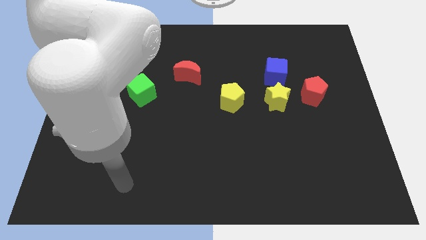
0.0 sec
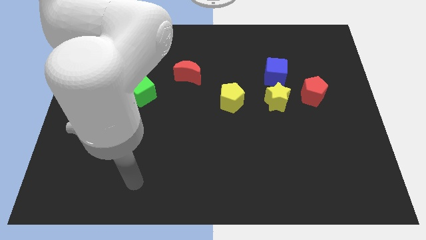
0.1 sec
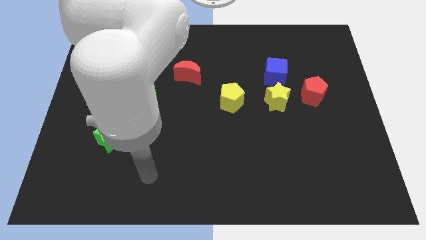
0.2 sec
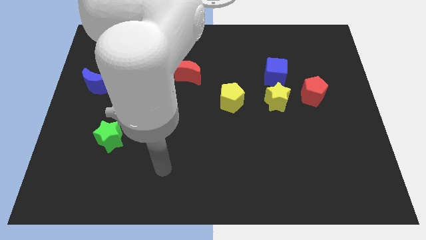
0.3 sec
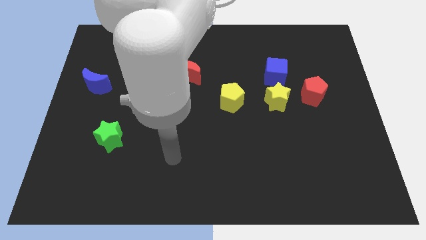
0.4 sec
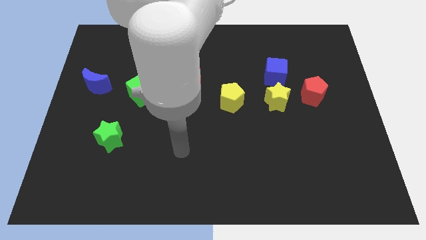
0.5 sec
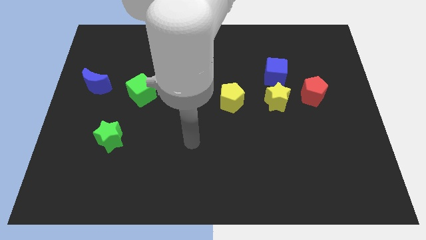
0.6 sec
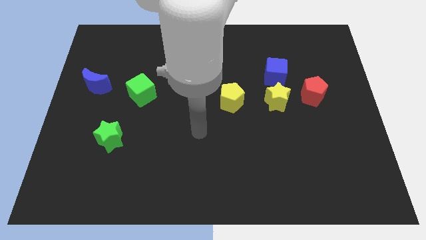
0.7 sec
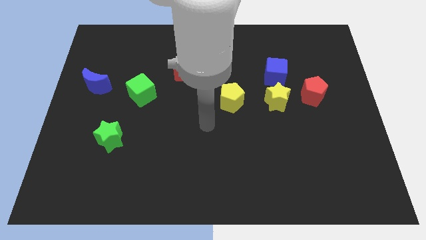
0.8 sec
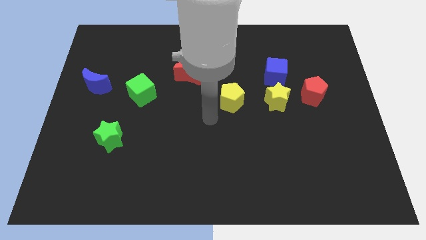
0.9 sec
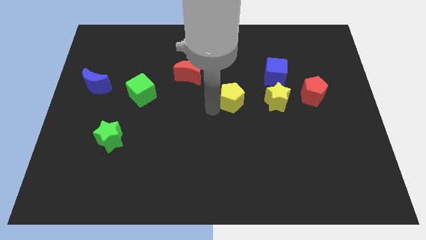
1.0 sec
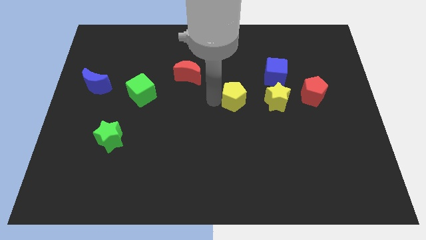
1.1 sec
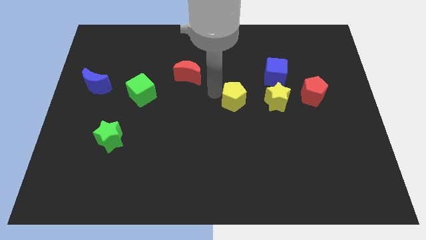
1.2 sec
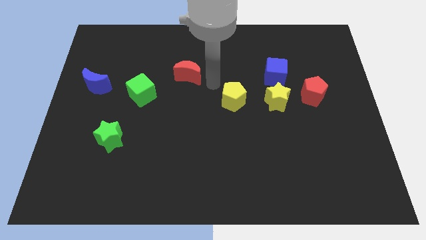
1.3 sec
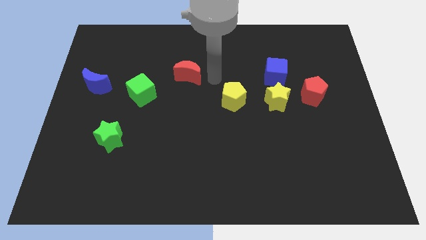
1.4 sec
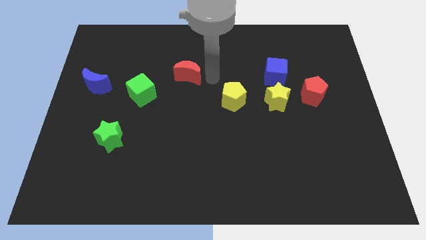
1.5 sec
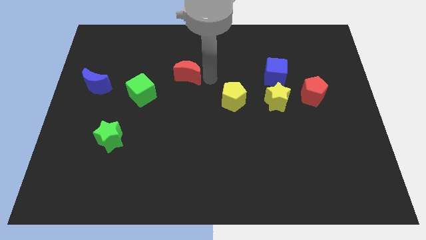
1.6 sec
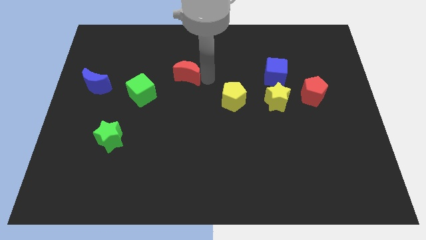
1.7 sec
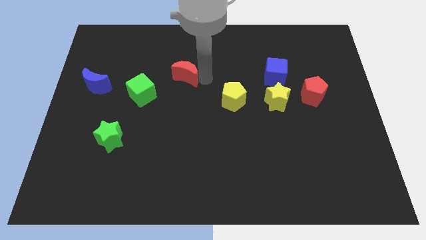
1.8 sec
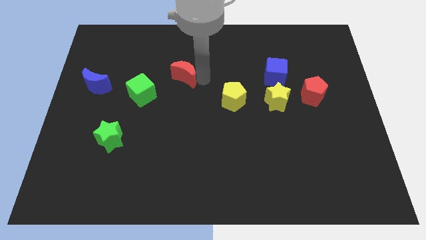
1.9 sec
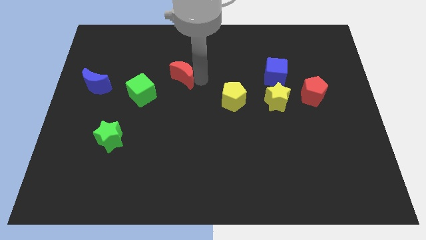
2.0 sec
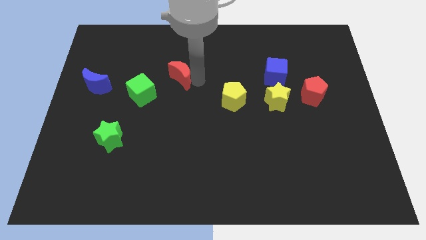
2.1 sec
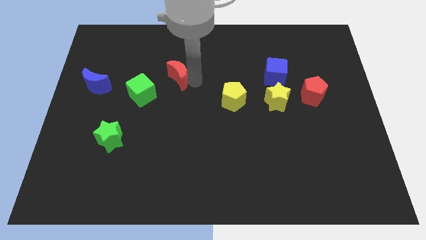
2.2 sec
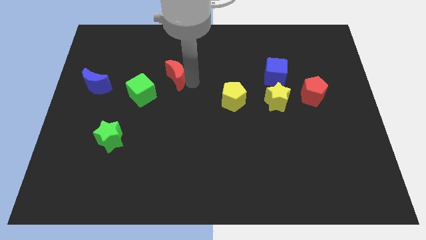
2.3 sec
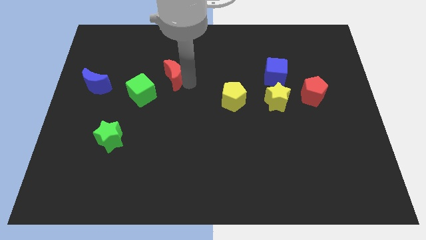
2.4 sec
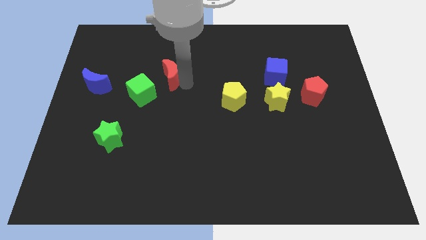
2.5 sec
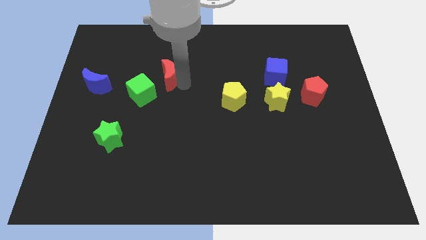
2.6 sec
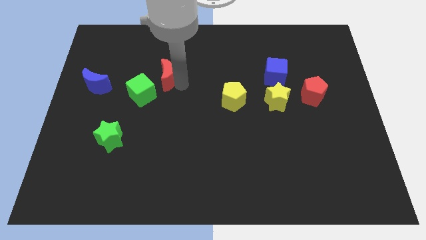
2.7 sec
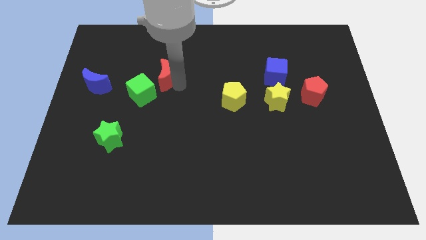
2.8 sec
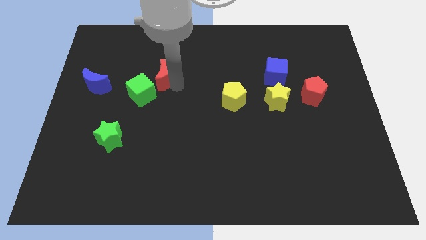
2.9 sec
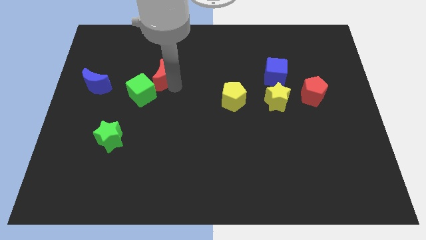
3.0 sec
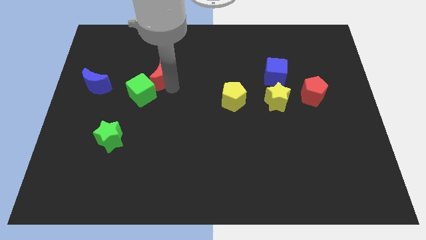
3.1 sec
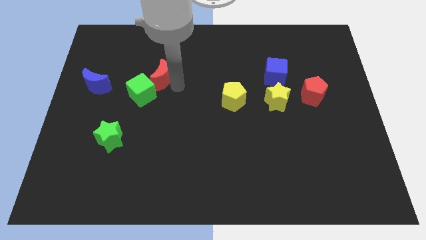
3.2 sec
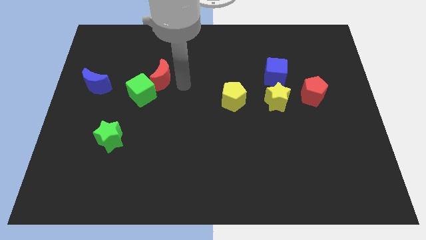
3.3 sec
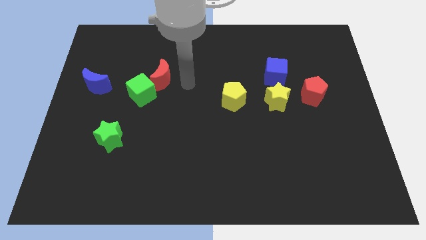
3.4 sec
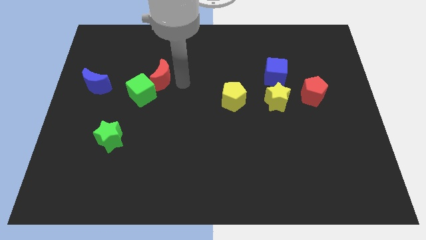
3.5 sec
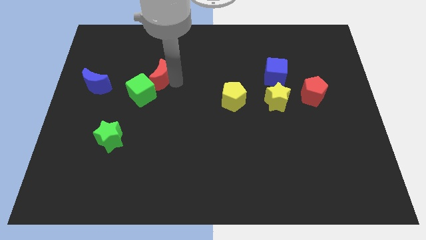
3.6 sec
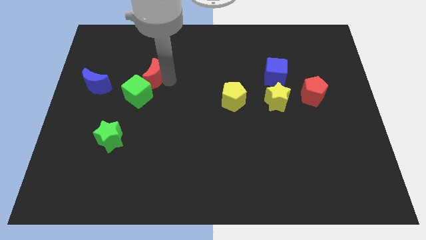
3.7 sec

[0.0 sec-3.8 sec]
push the red moon somewhat left

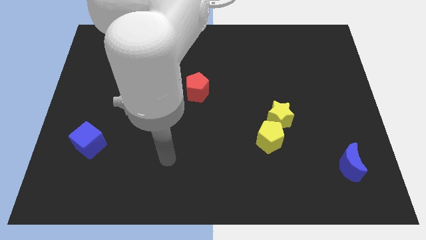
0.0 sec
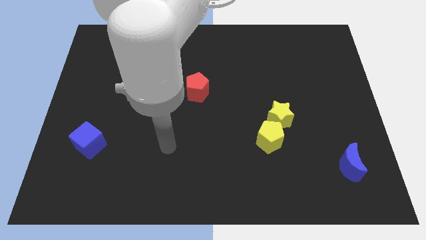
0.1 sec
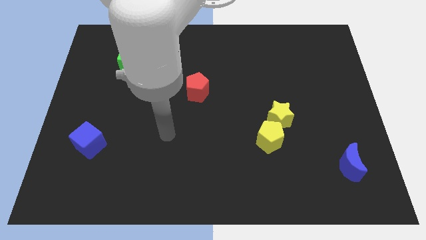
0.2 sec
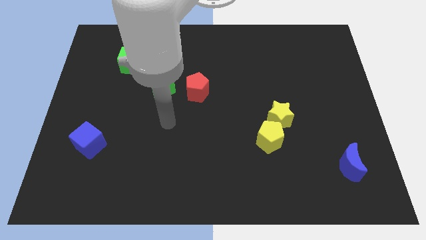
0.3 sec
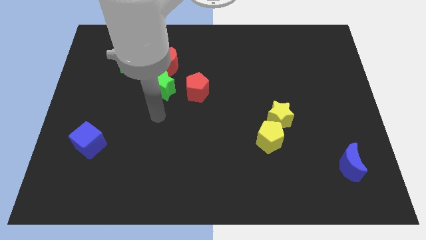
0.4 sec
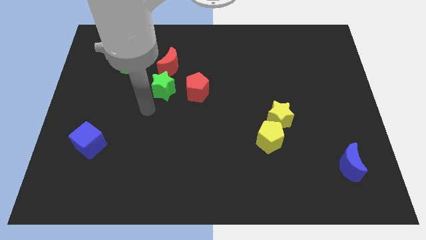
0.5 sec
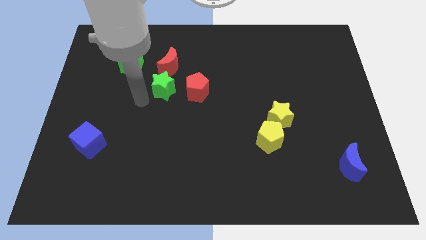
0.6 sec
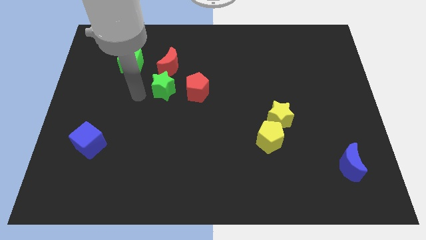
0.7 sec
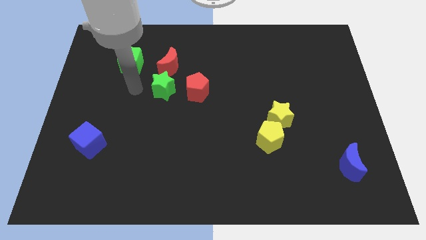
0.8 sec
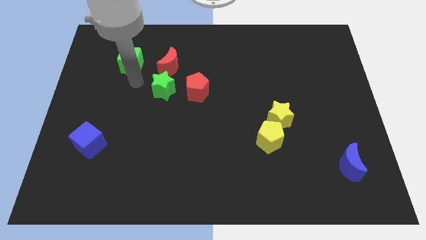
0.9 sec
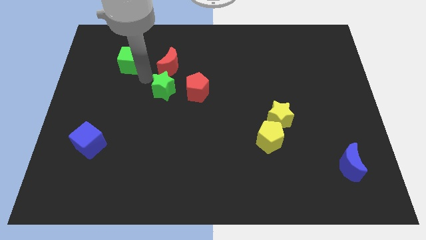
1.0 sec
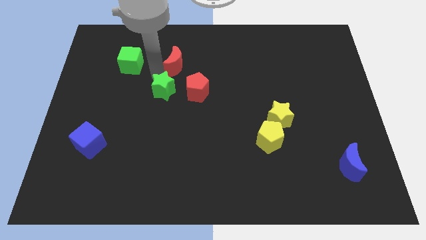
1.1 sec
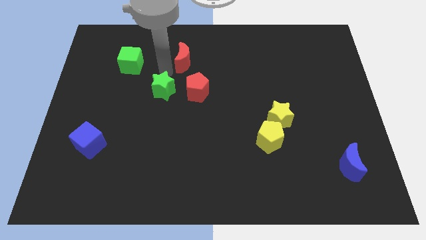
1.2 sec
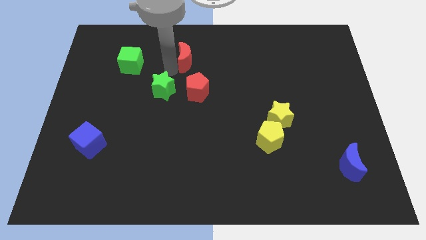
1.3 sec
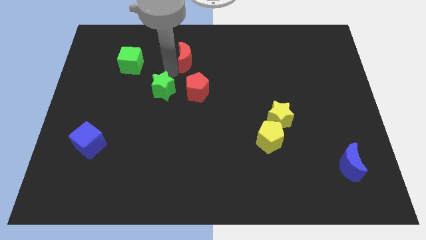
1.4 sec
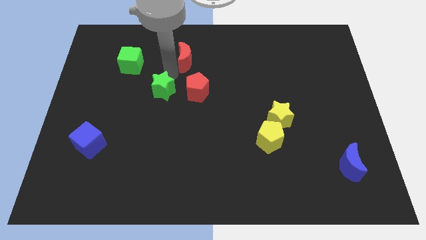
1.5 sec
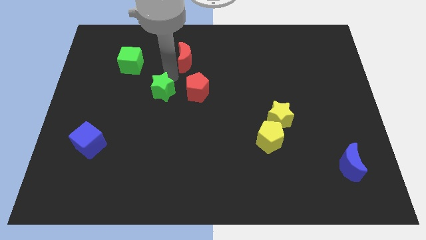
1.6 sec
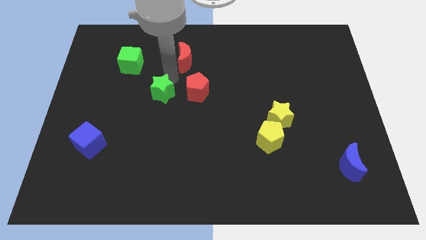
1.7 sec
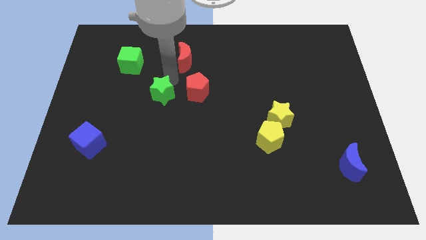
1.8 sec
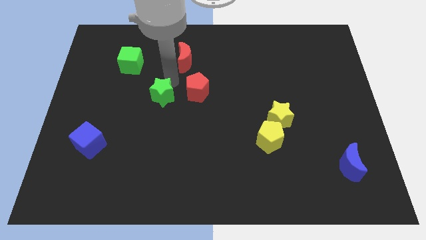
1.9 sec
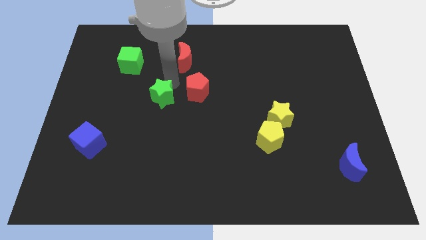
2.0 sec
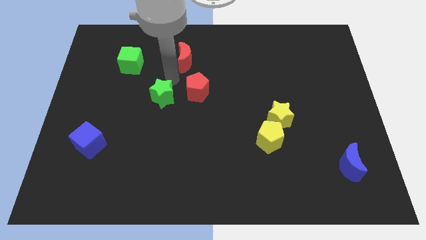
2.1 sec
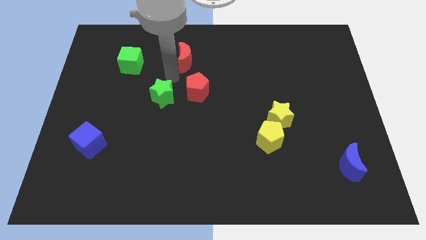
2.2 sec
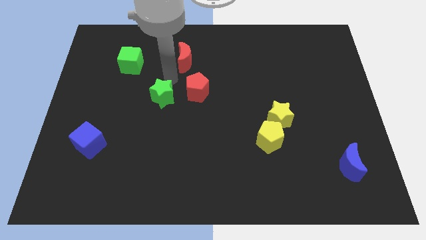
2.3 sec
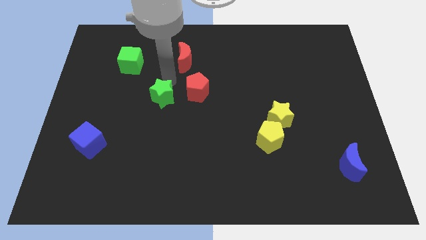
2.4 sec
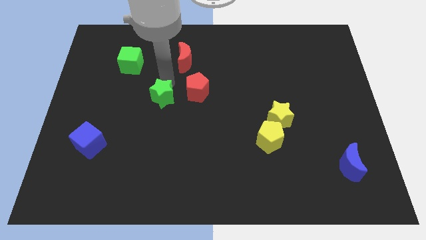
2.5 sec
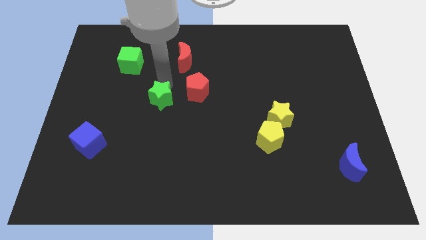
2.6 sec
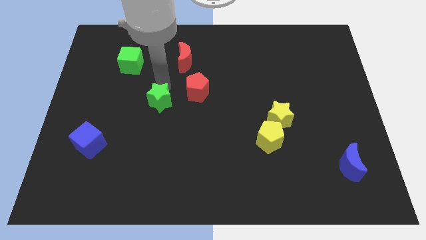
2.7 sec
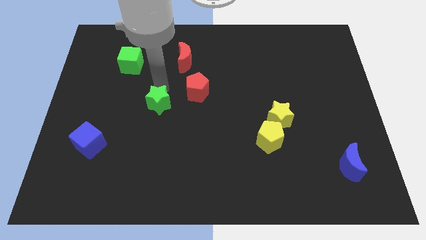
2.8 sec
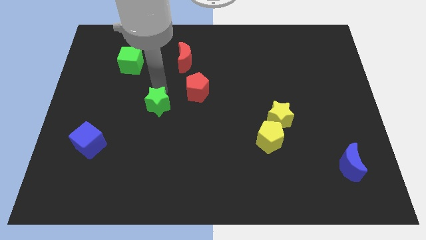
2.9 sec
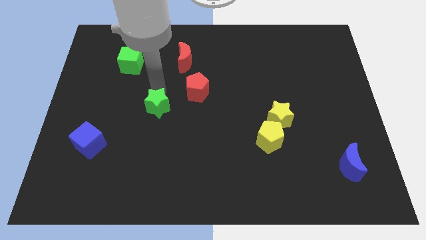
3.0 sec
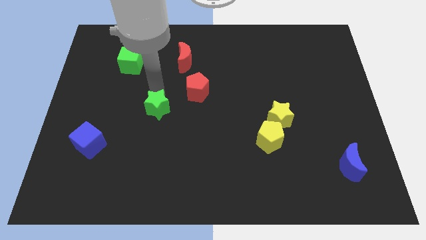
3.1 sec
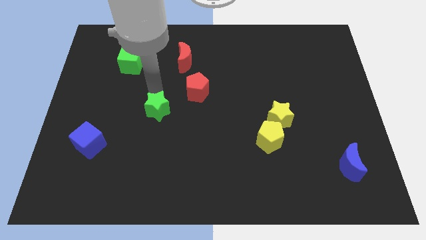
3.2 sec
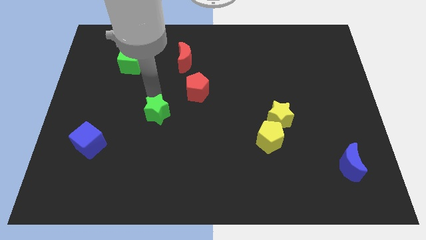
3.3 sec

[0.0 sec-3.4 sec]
push the green star down a little

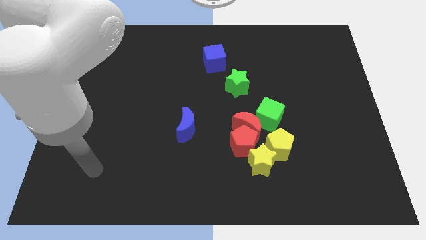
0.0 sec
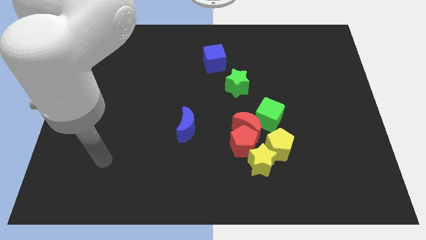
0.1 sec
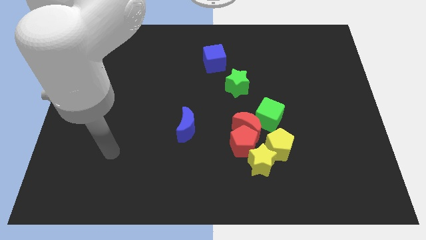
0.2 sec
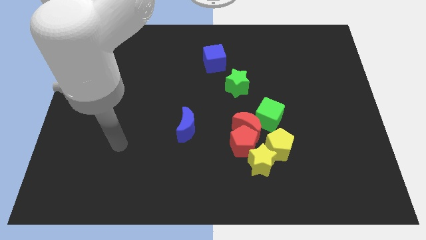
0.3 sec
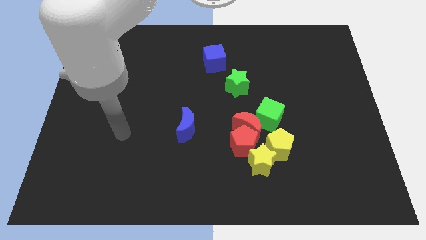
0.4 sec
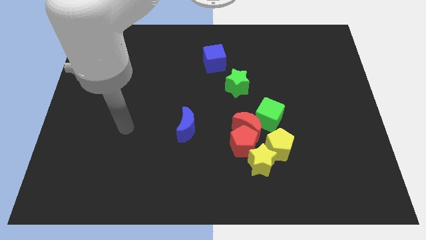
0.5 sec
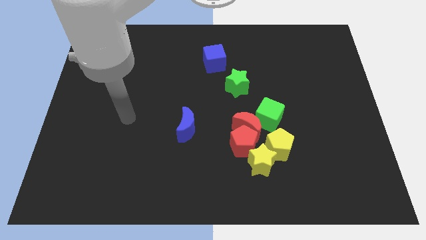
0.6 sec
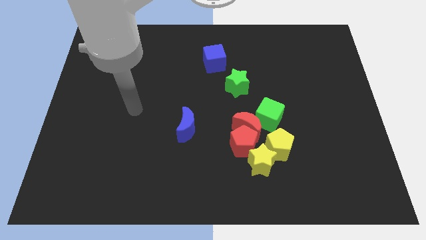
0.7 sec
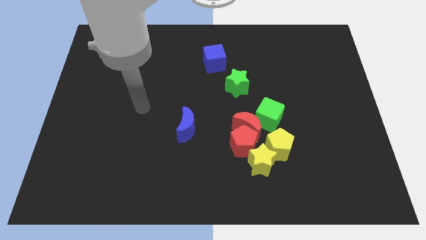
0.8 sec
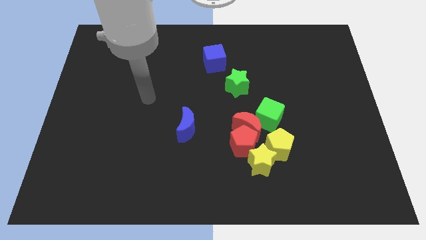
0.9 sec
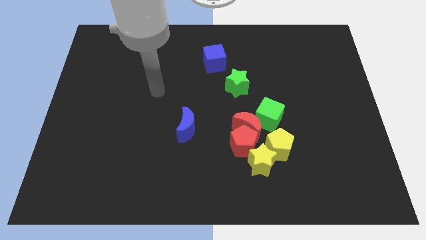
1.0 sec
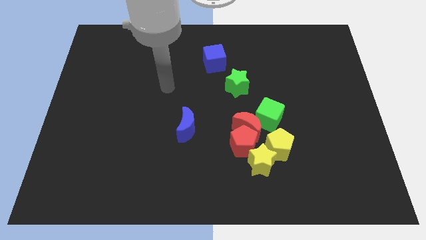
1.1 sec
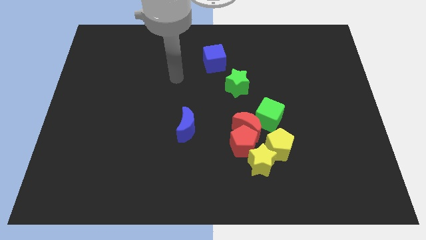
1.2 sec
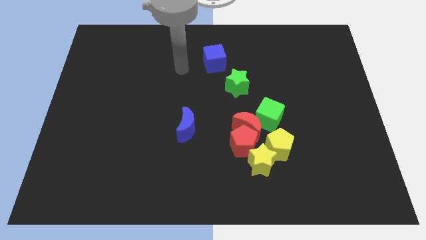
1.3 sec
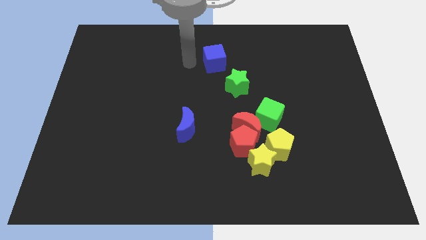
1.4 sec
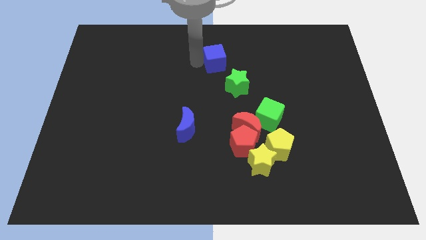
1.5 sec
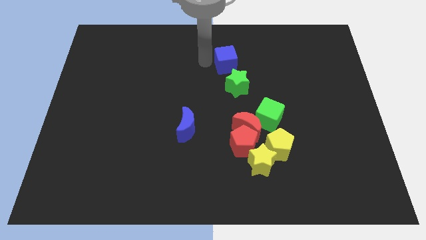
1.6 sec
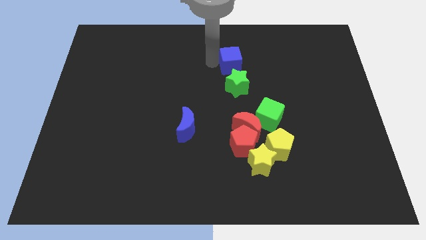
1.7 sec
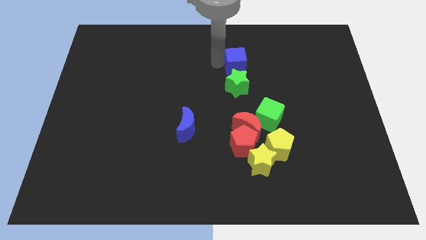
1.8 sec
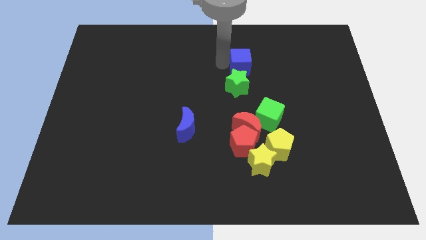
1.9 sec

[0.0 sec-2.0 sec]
move the blue cube a little right
